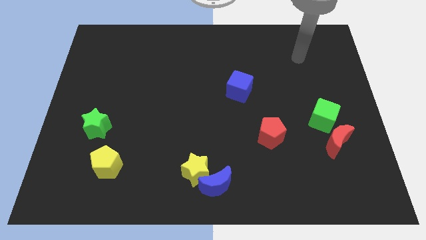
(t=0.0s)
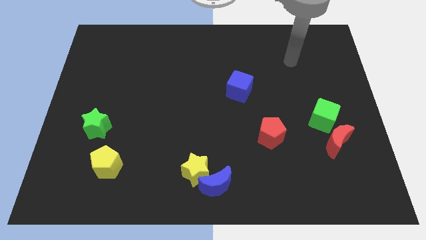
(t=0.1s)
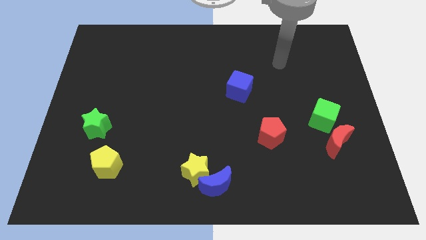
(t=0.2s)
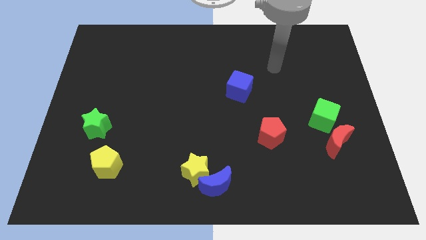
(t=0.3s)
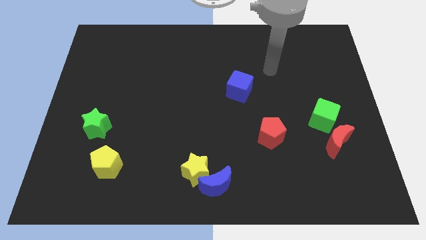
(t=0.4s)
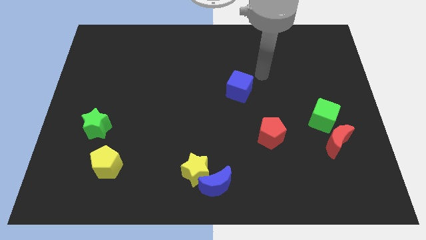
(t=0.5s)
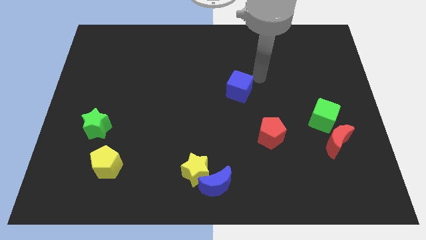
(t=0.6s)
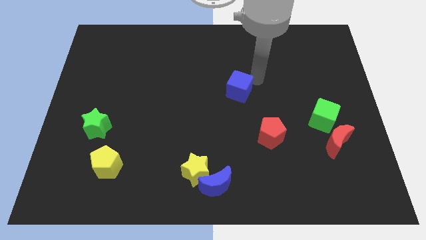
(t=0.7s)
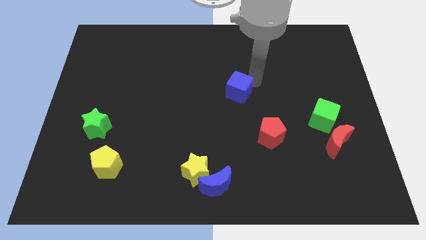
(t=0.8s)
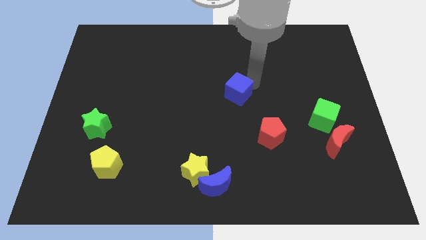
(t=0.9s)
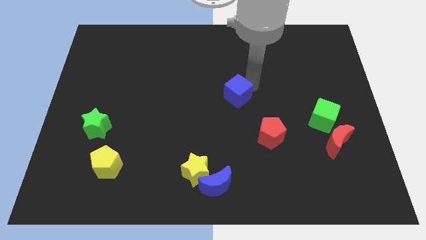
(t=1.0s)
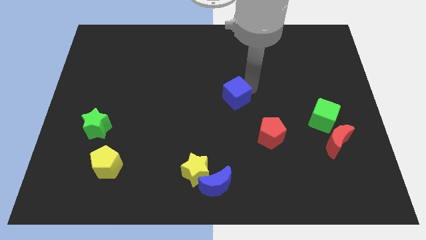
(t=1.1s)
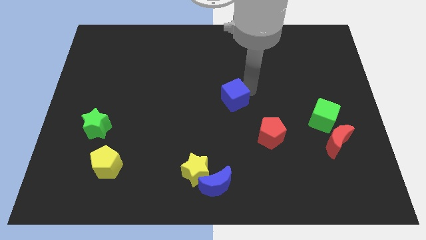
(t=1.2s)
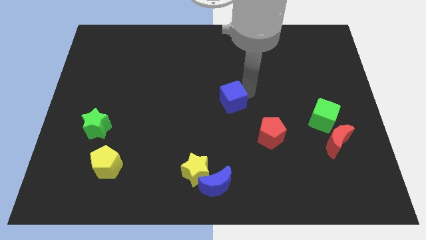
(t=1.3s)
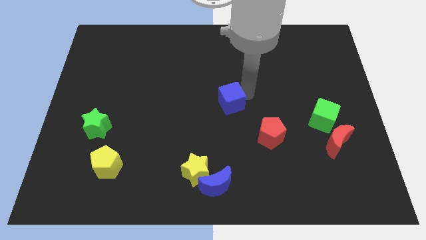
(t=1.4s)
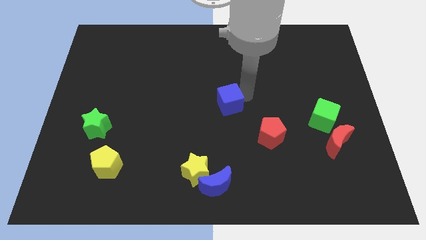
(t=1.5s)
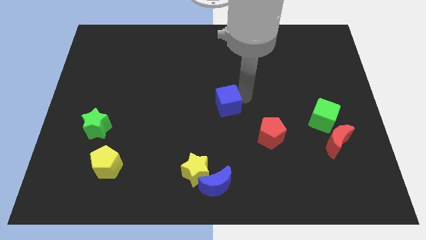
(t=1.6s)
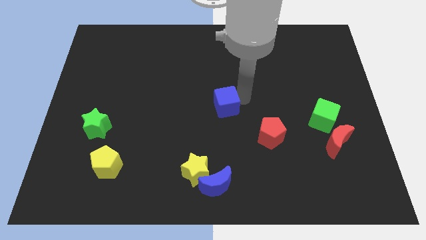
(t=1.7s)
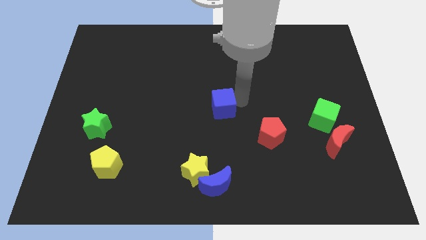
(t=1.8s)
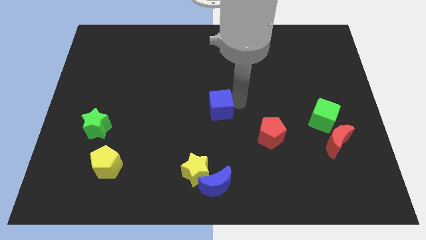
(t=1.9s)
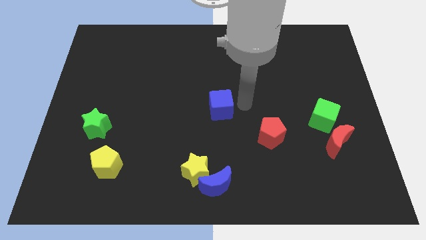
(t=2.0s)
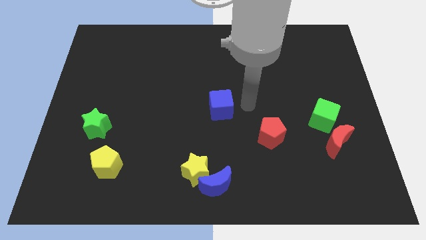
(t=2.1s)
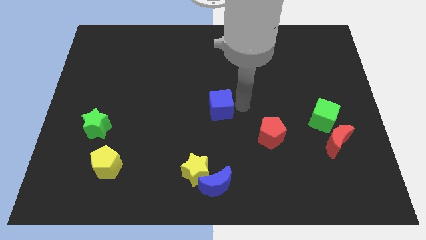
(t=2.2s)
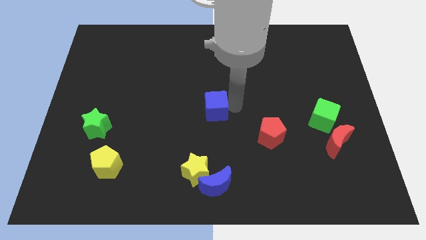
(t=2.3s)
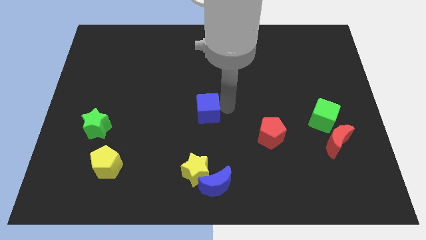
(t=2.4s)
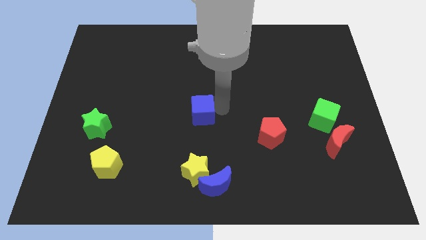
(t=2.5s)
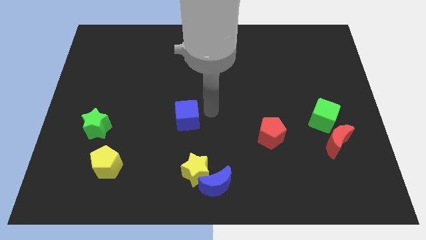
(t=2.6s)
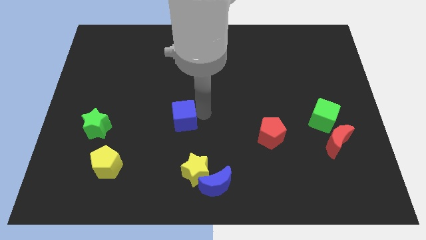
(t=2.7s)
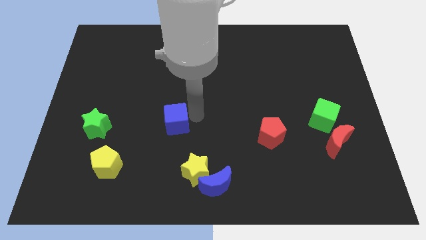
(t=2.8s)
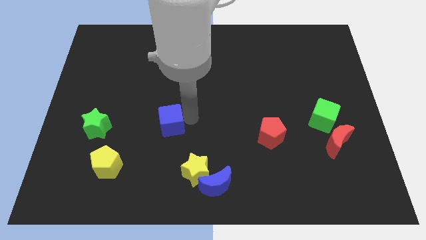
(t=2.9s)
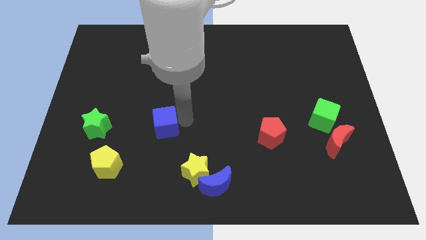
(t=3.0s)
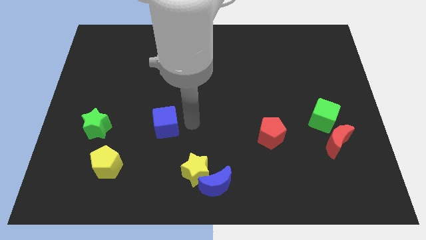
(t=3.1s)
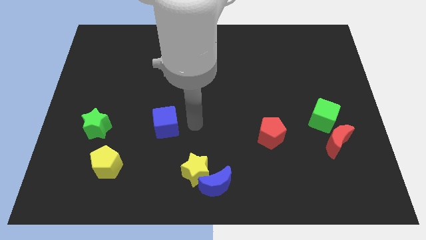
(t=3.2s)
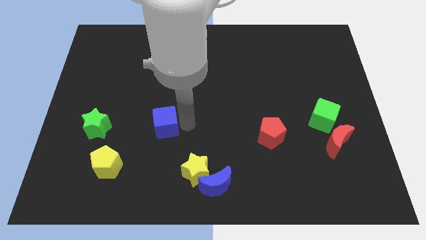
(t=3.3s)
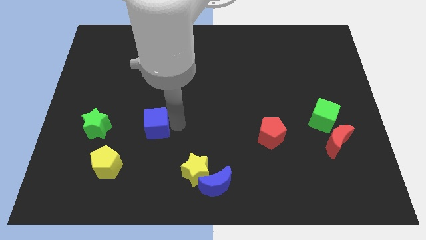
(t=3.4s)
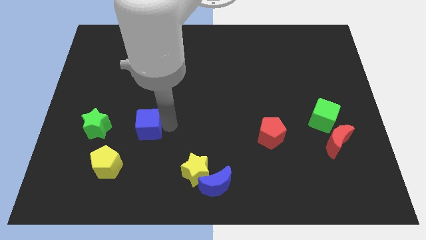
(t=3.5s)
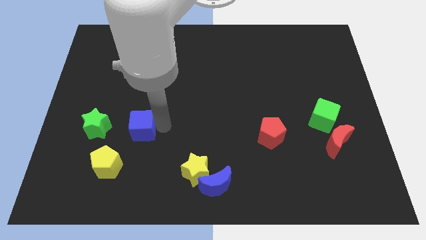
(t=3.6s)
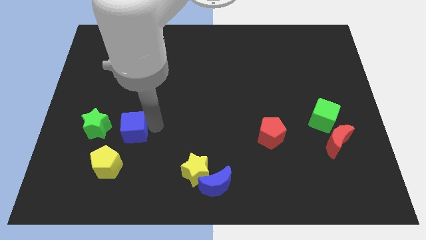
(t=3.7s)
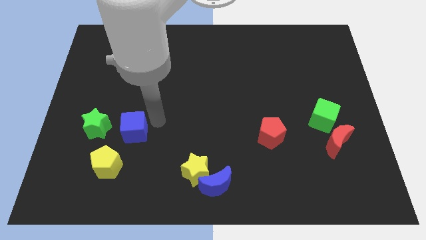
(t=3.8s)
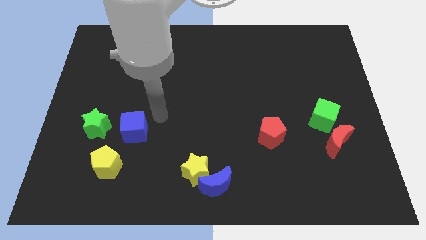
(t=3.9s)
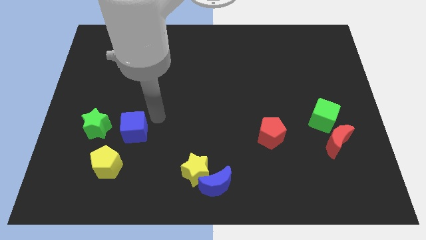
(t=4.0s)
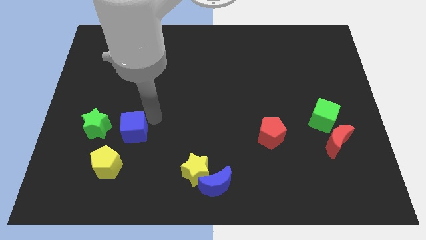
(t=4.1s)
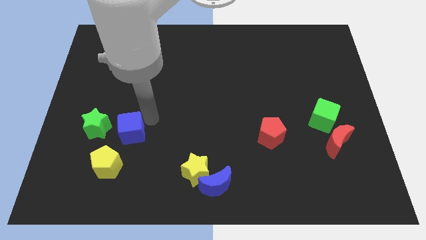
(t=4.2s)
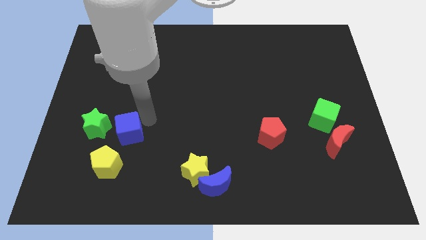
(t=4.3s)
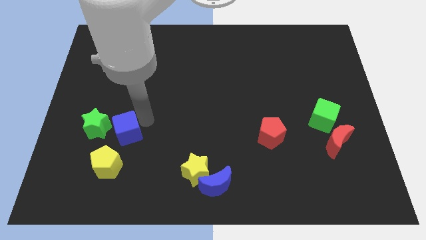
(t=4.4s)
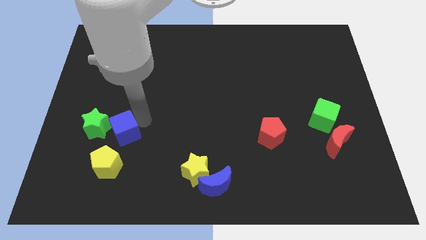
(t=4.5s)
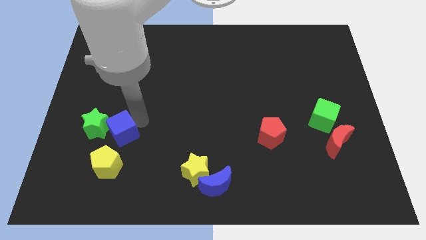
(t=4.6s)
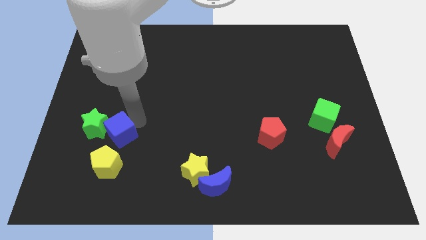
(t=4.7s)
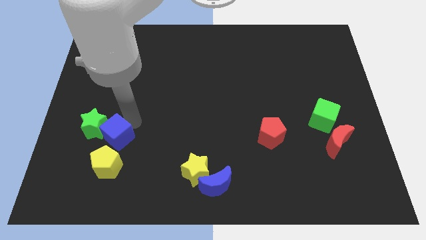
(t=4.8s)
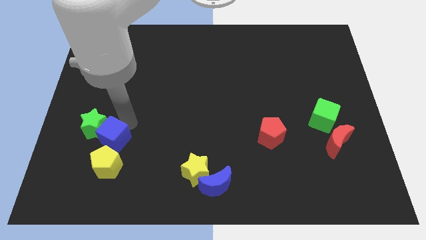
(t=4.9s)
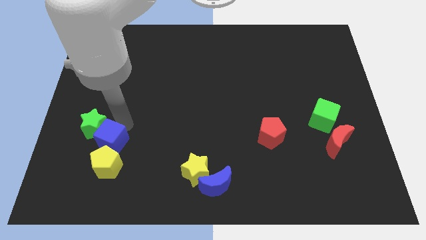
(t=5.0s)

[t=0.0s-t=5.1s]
slide the blue cube to the bottom of the green star

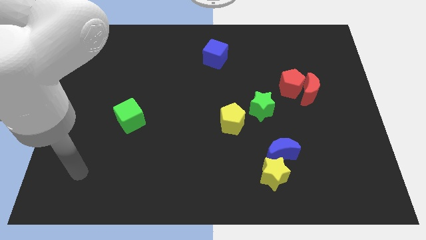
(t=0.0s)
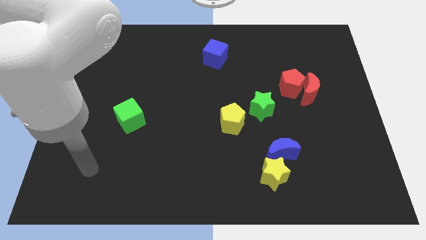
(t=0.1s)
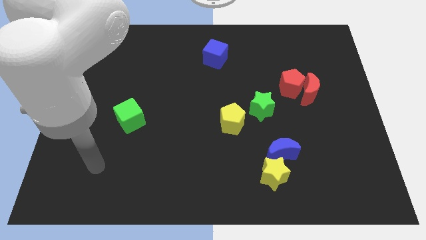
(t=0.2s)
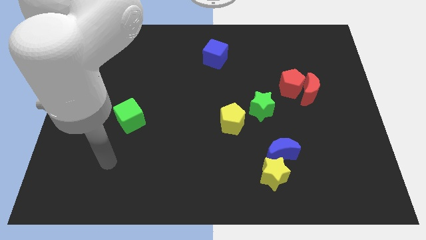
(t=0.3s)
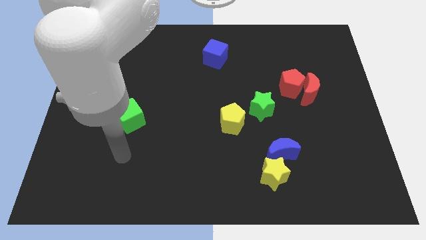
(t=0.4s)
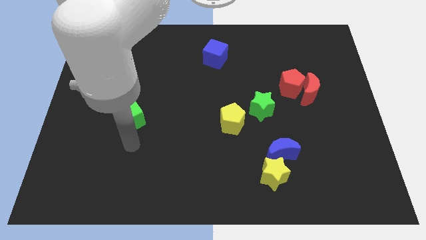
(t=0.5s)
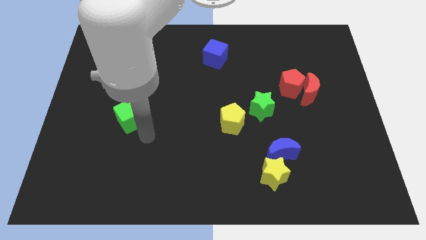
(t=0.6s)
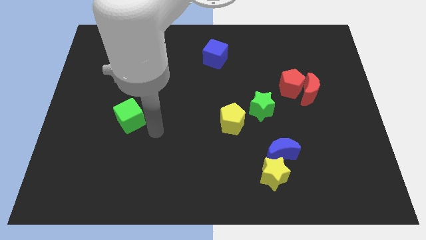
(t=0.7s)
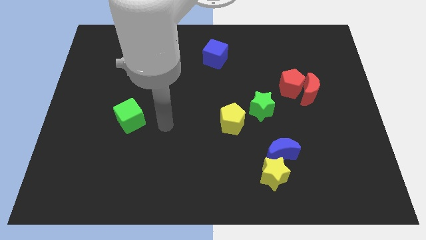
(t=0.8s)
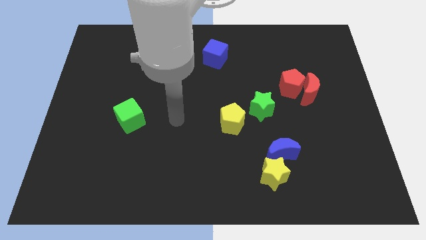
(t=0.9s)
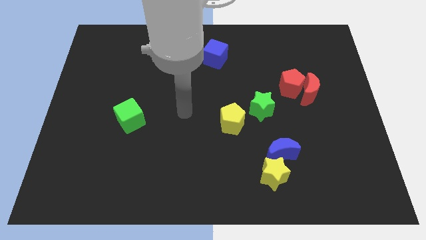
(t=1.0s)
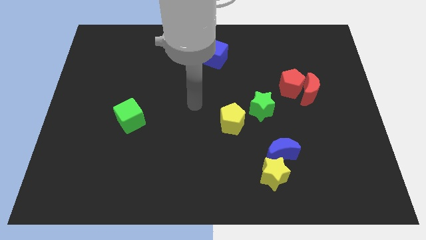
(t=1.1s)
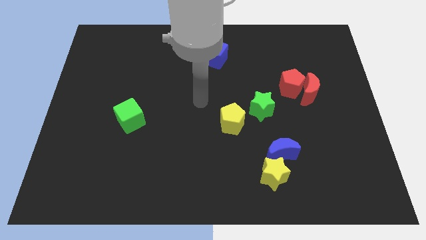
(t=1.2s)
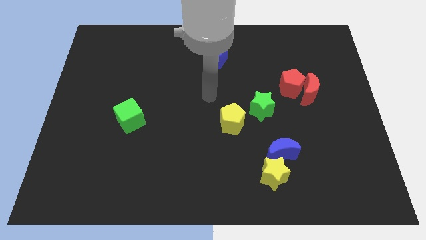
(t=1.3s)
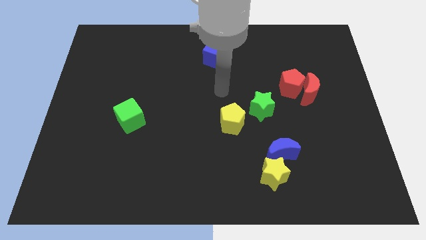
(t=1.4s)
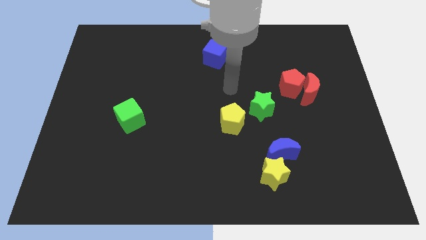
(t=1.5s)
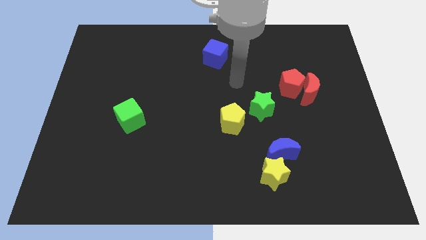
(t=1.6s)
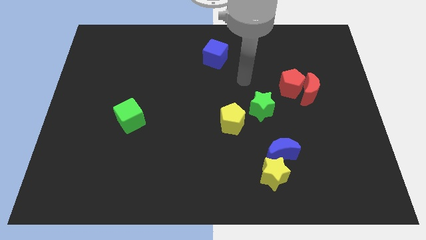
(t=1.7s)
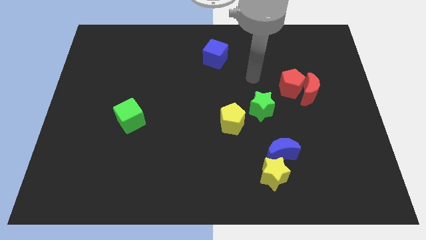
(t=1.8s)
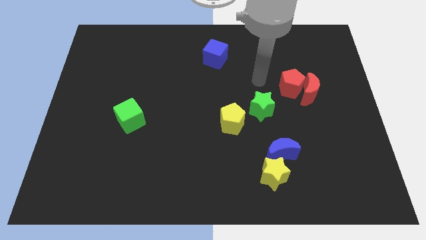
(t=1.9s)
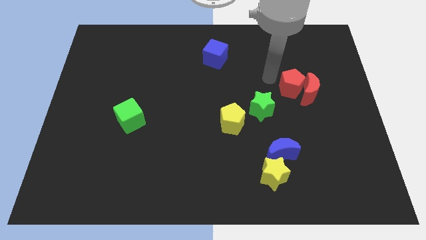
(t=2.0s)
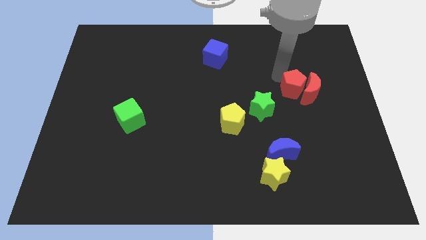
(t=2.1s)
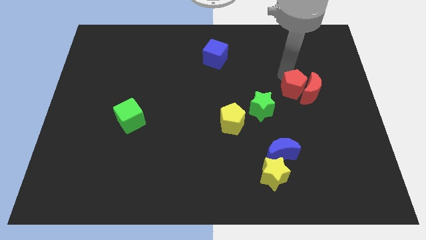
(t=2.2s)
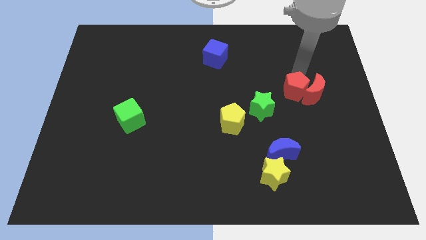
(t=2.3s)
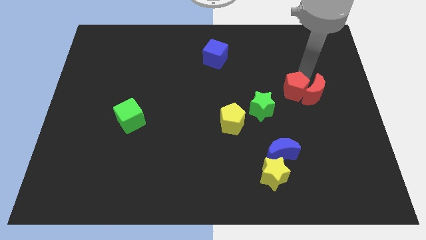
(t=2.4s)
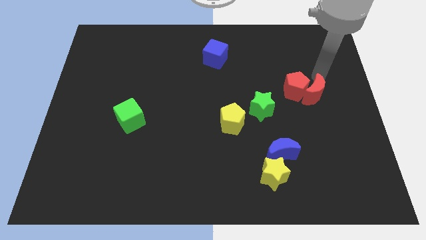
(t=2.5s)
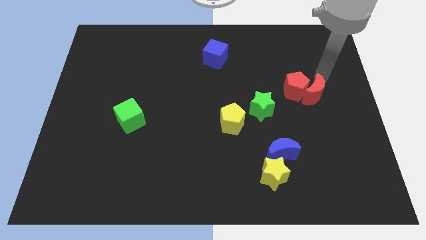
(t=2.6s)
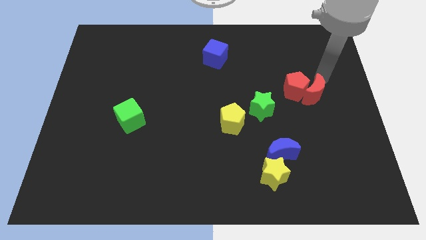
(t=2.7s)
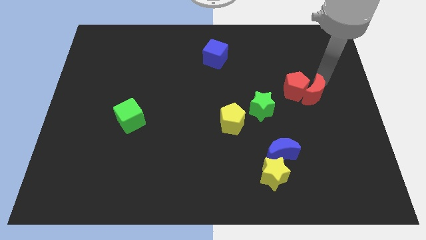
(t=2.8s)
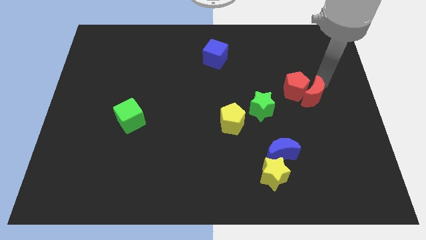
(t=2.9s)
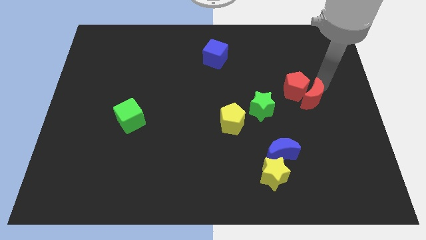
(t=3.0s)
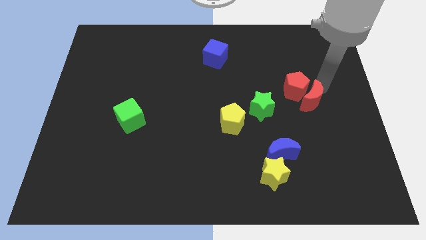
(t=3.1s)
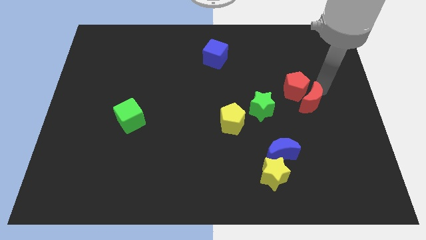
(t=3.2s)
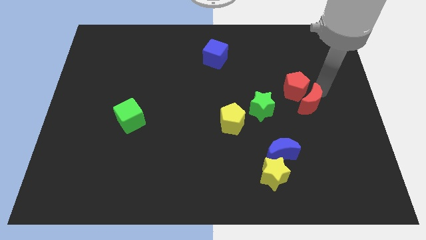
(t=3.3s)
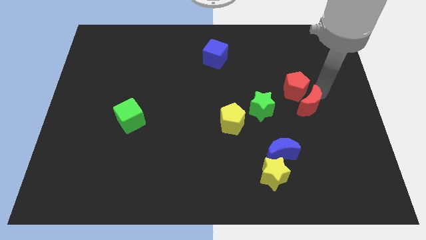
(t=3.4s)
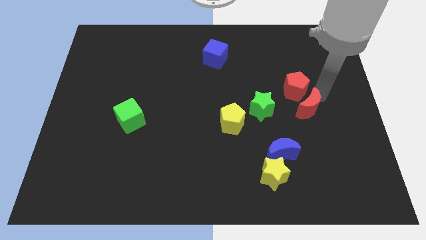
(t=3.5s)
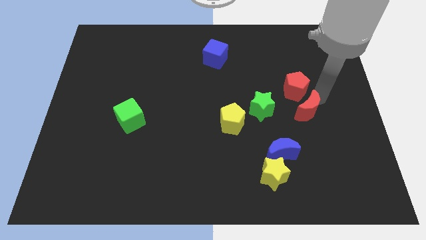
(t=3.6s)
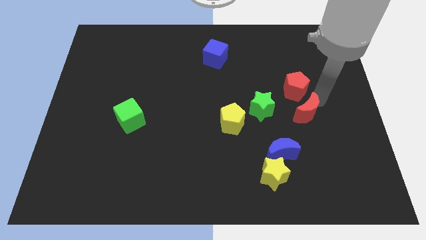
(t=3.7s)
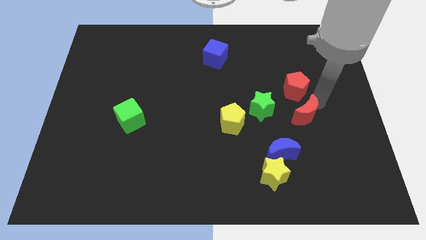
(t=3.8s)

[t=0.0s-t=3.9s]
put the red moon to the top right of the blue moon
